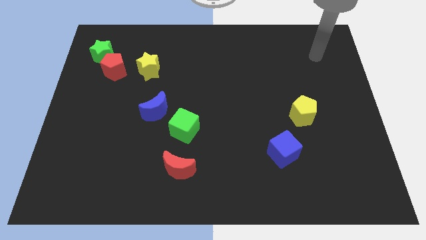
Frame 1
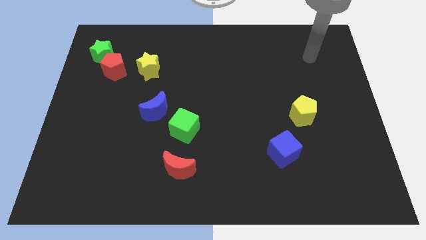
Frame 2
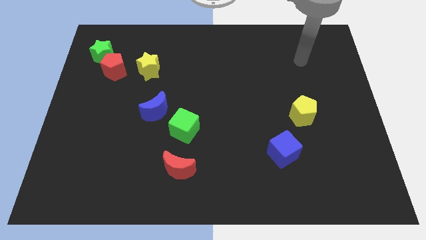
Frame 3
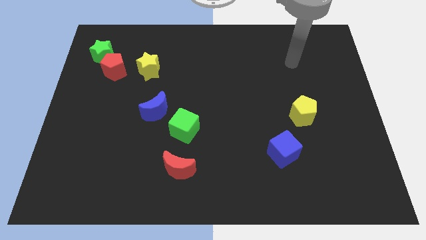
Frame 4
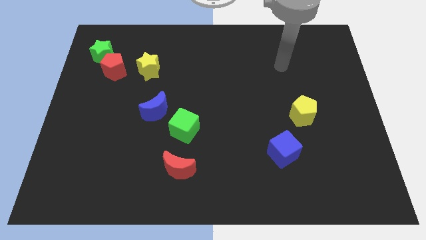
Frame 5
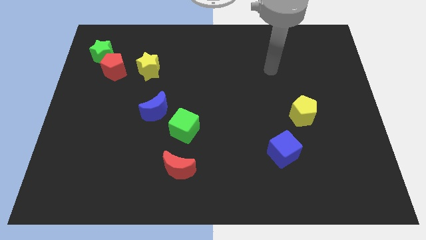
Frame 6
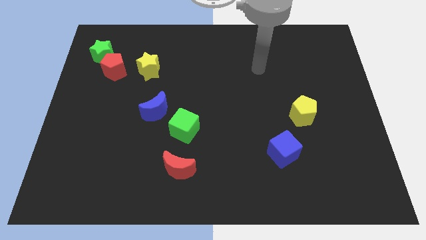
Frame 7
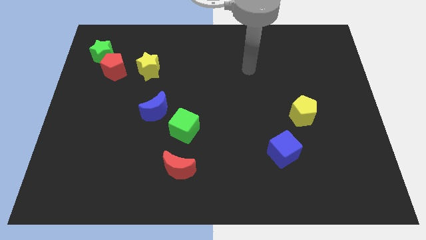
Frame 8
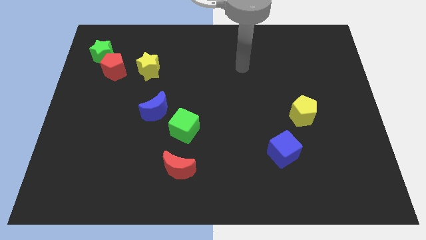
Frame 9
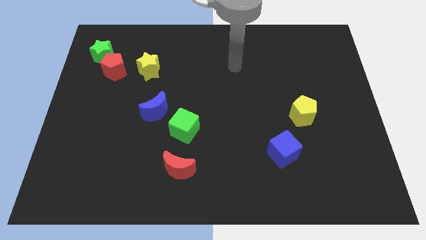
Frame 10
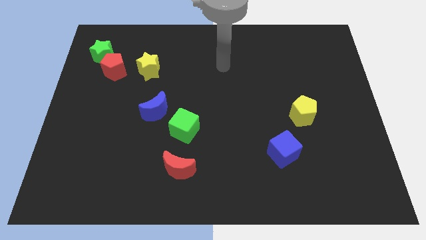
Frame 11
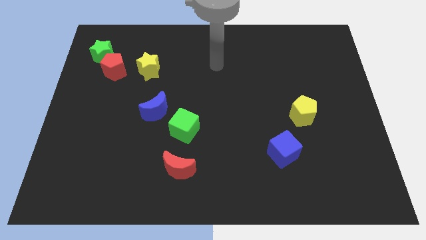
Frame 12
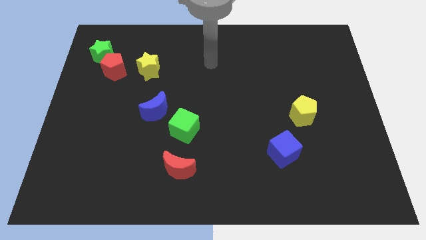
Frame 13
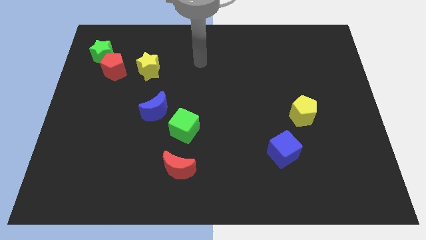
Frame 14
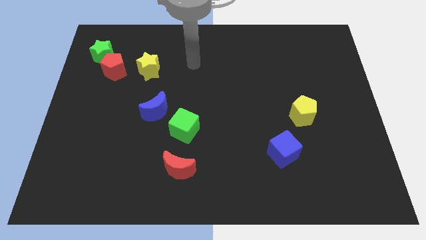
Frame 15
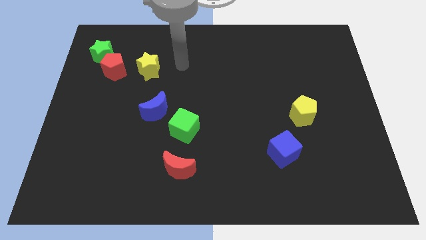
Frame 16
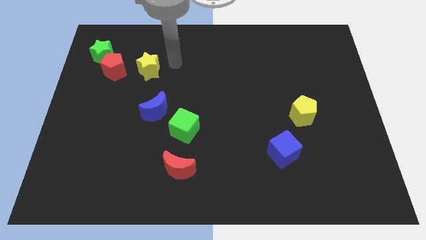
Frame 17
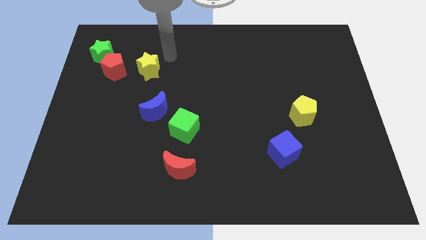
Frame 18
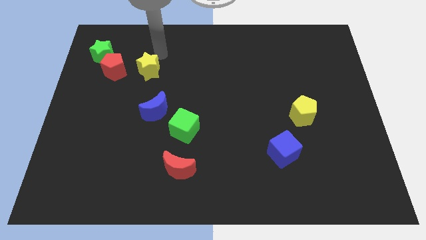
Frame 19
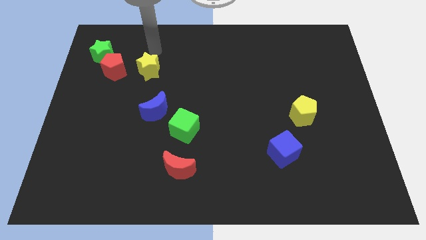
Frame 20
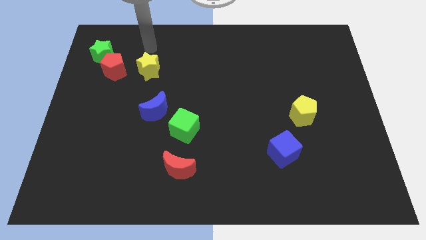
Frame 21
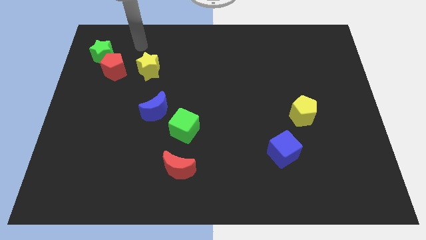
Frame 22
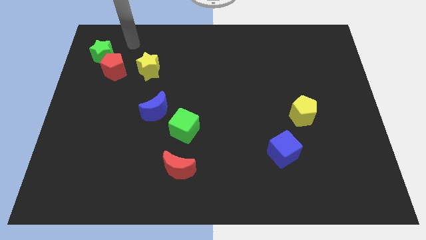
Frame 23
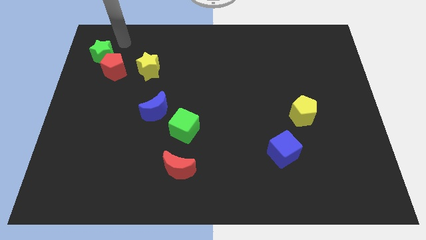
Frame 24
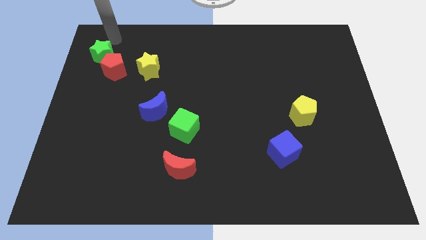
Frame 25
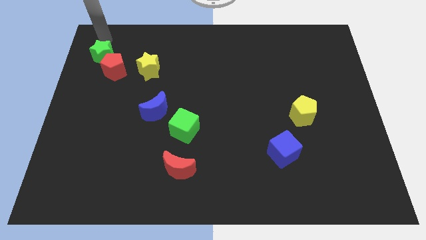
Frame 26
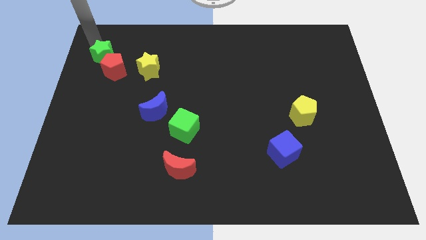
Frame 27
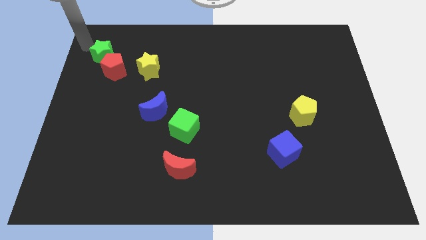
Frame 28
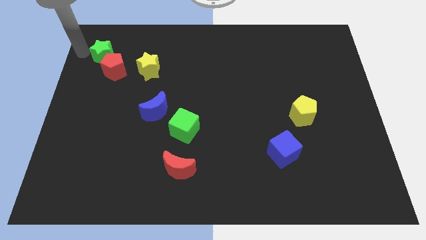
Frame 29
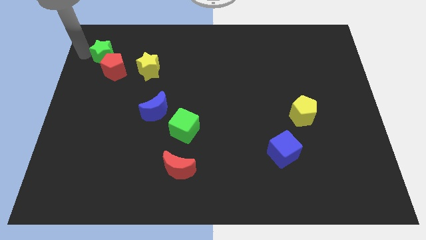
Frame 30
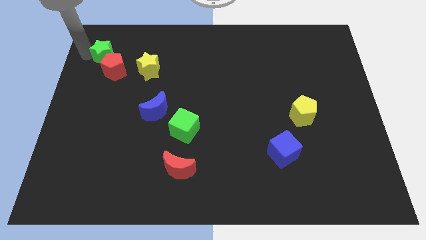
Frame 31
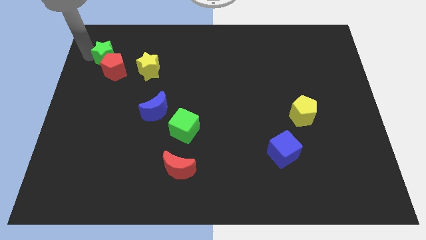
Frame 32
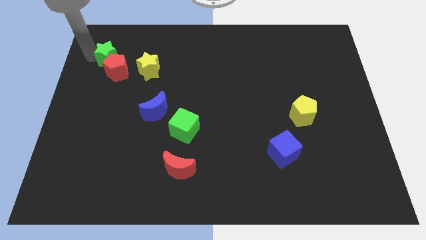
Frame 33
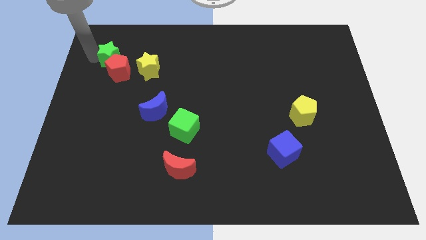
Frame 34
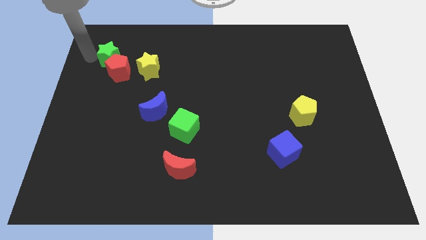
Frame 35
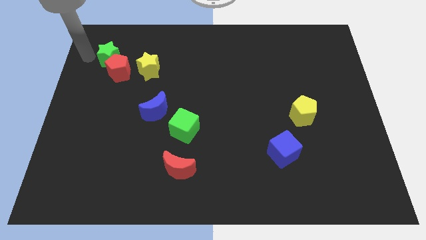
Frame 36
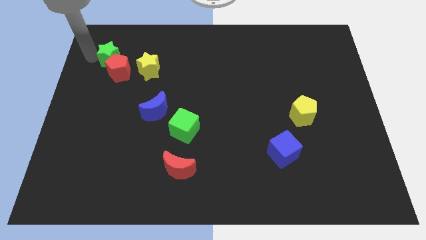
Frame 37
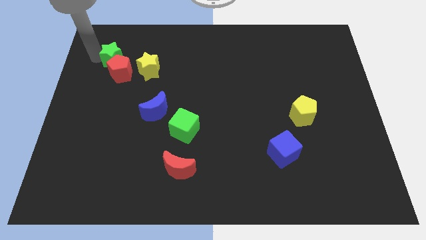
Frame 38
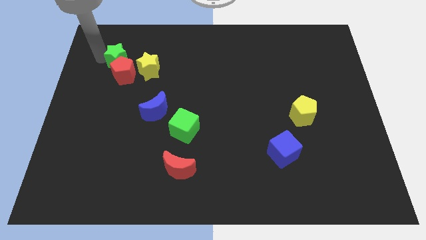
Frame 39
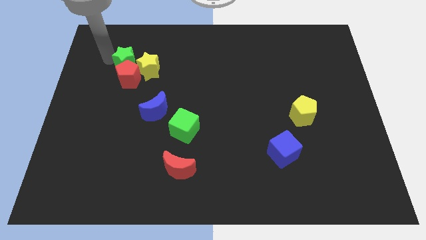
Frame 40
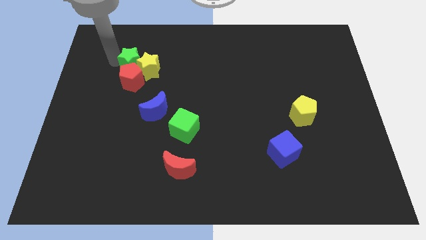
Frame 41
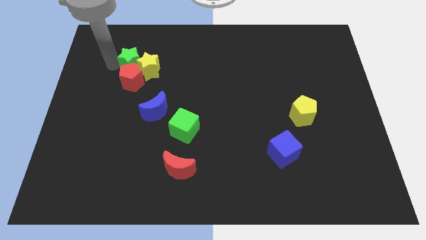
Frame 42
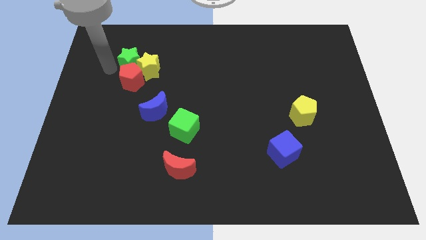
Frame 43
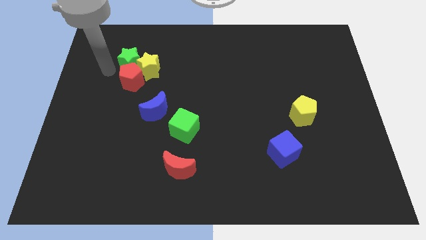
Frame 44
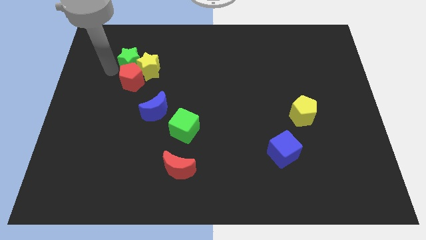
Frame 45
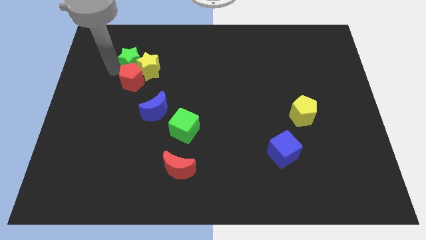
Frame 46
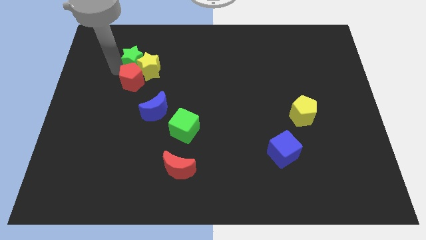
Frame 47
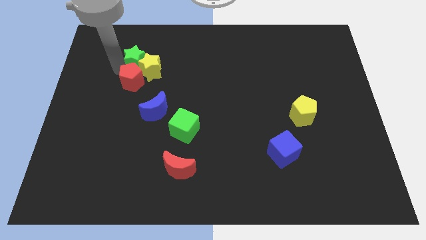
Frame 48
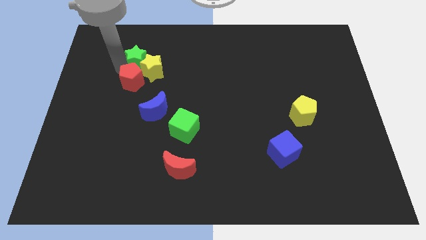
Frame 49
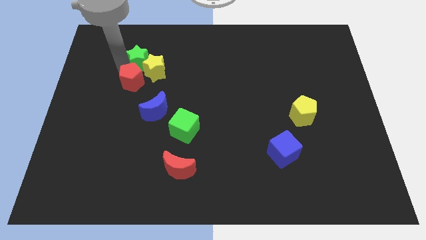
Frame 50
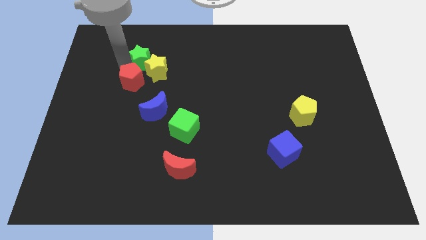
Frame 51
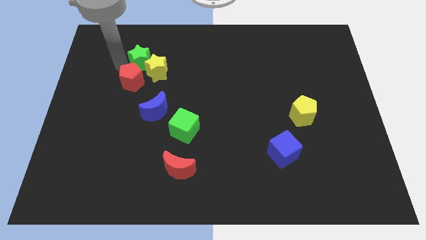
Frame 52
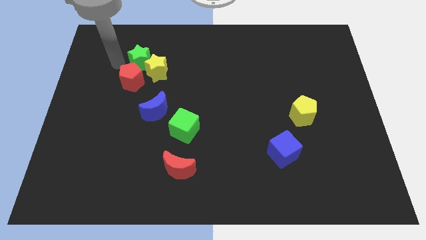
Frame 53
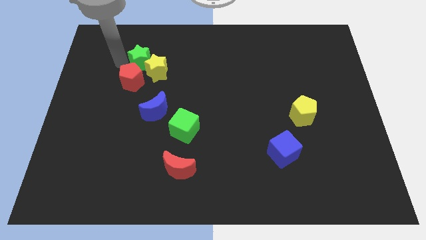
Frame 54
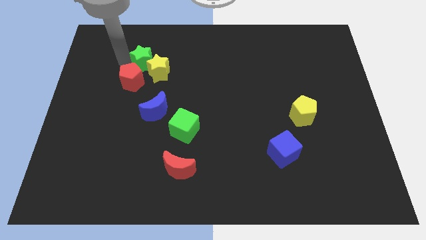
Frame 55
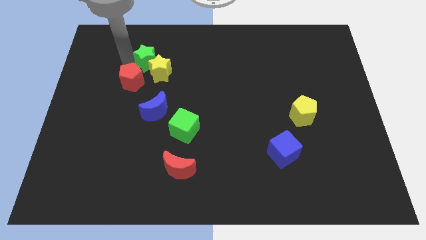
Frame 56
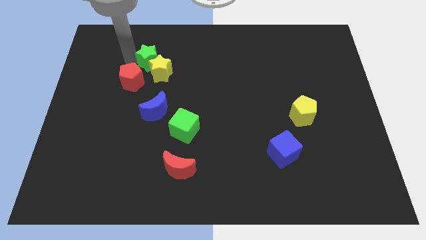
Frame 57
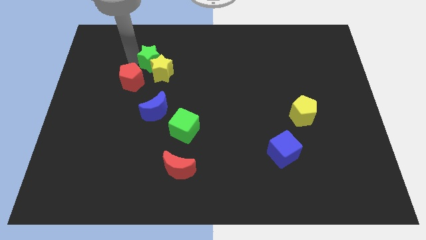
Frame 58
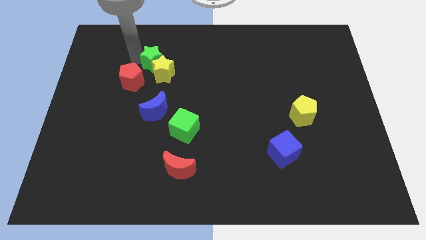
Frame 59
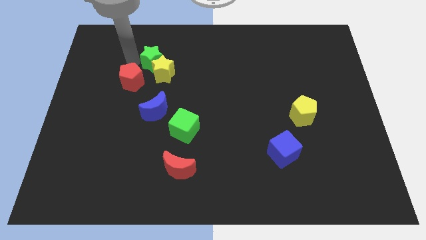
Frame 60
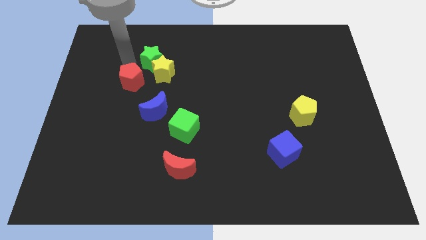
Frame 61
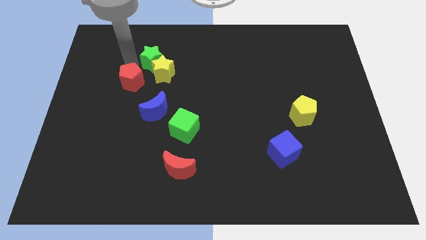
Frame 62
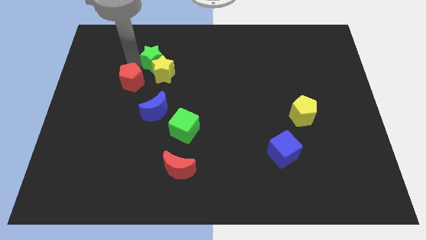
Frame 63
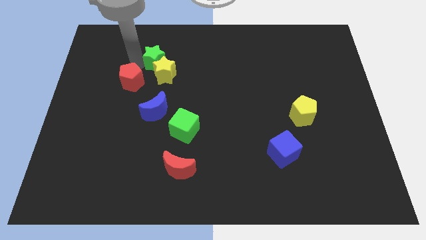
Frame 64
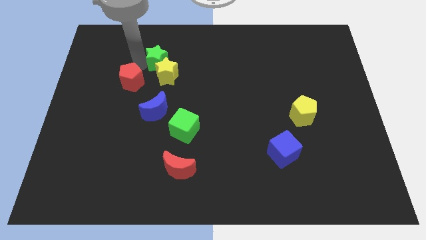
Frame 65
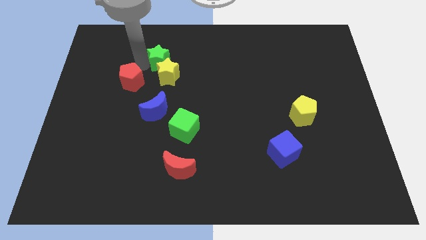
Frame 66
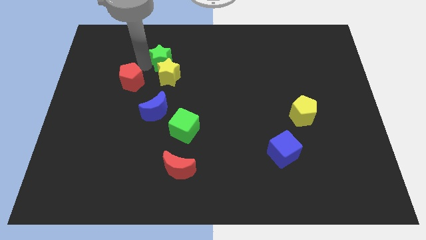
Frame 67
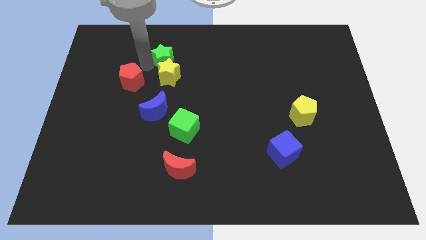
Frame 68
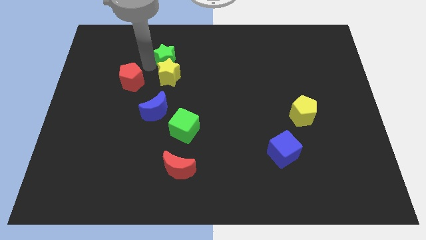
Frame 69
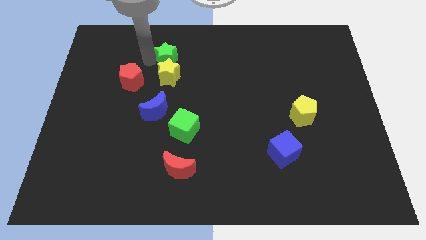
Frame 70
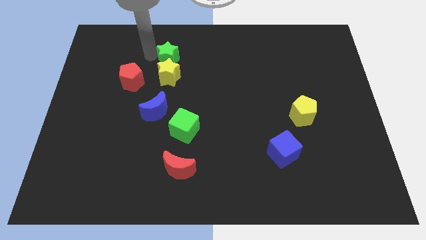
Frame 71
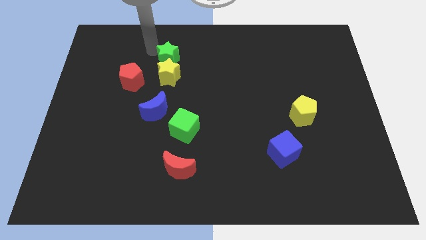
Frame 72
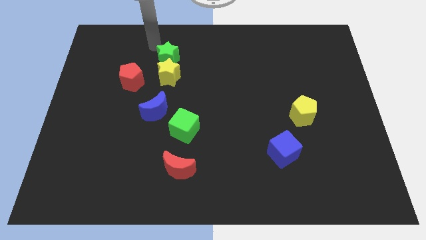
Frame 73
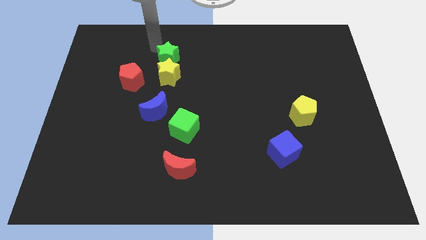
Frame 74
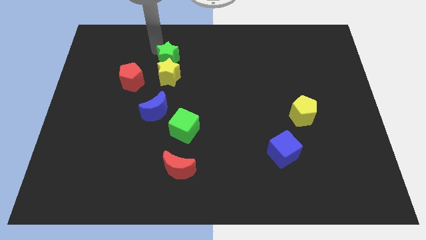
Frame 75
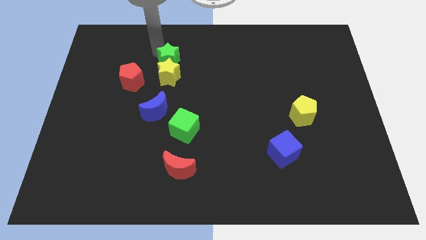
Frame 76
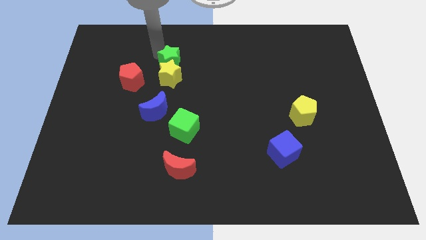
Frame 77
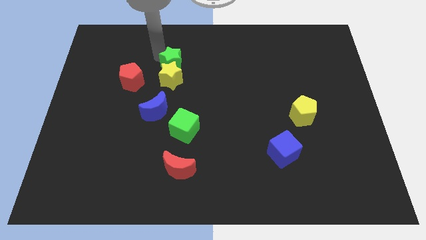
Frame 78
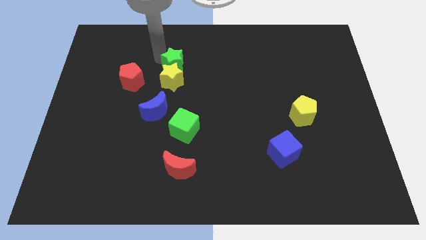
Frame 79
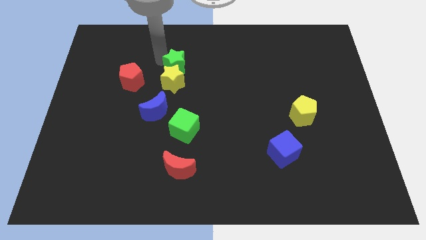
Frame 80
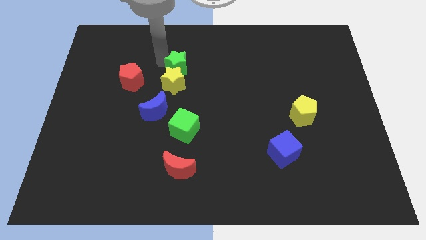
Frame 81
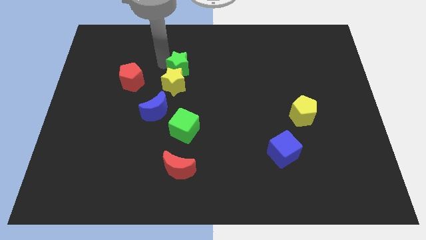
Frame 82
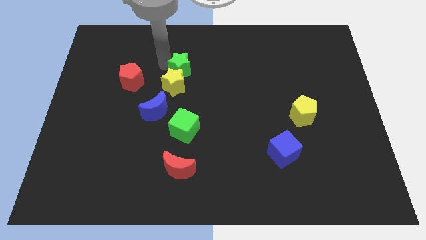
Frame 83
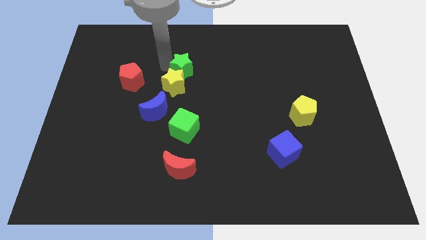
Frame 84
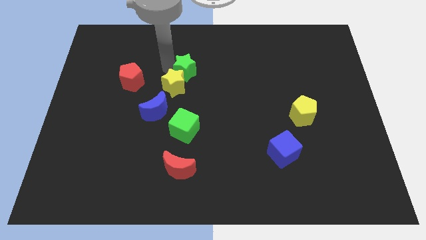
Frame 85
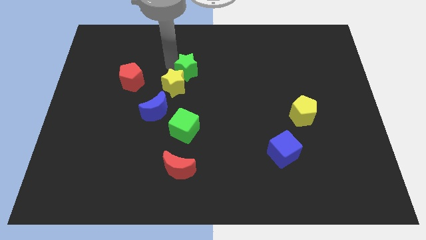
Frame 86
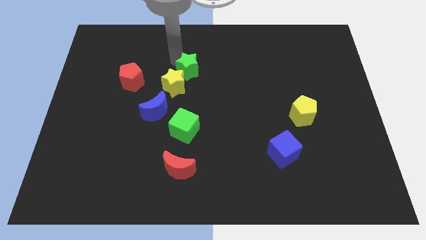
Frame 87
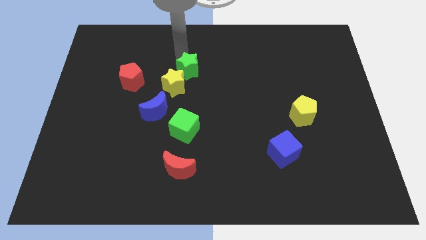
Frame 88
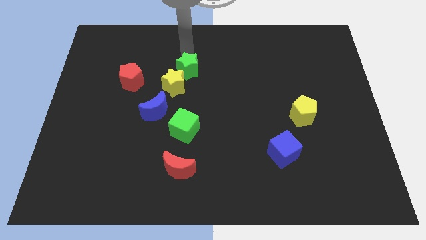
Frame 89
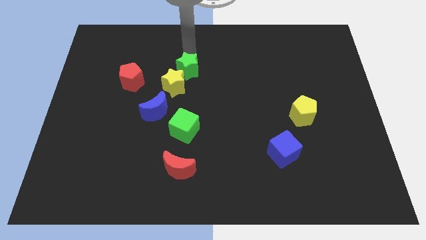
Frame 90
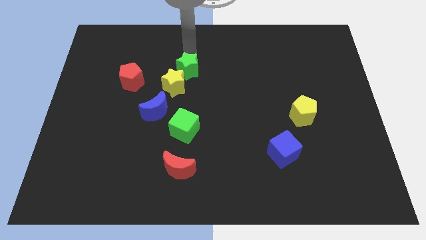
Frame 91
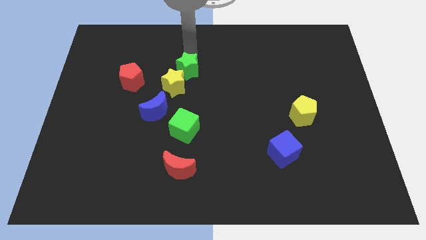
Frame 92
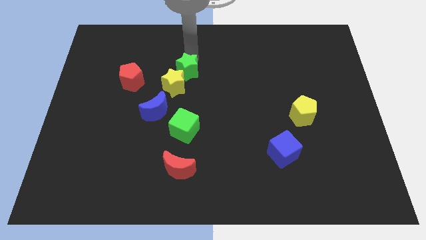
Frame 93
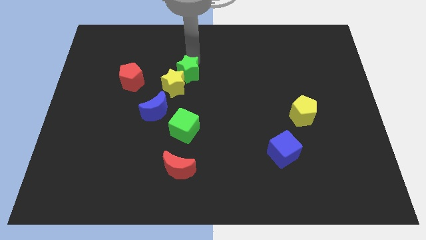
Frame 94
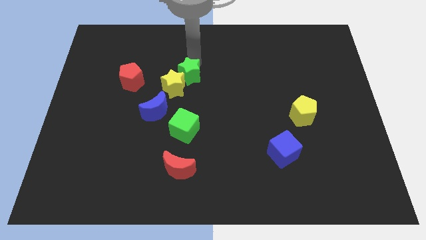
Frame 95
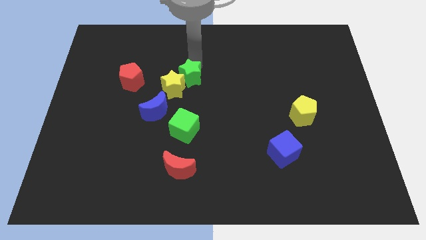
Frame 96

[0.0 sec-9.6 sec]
slide the green star to the top of the green cube
